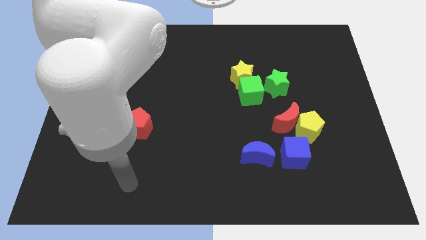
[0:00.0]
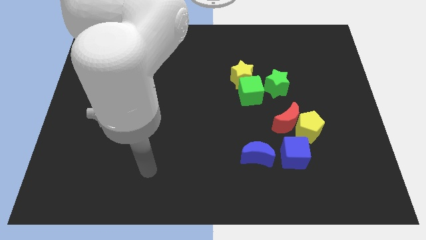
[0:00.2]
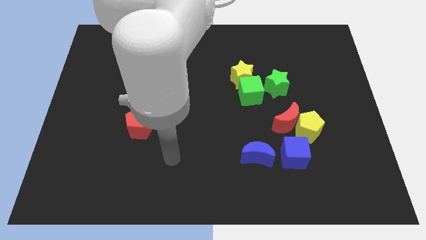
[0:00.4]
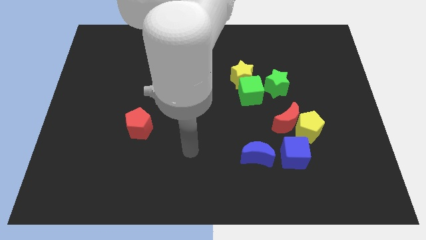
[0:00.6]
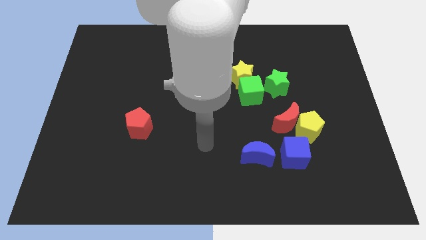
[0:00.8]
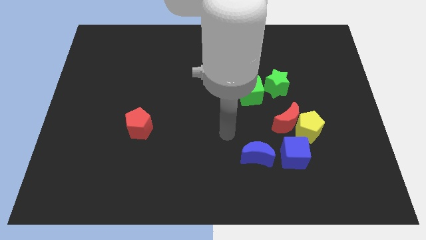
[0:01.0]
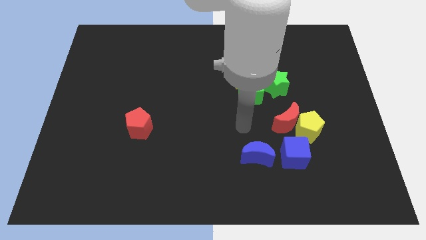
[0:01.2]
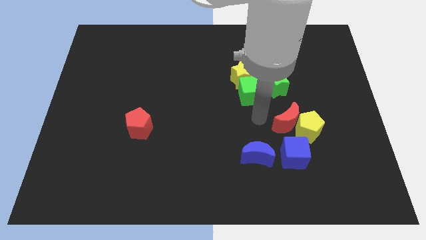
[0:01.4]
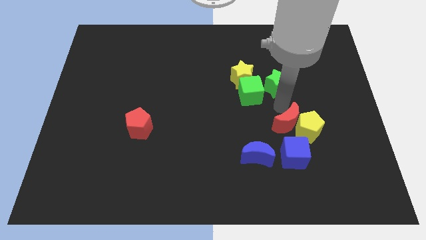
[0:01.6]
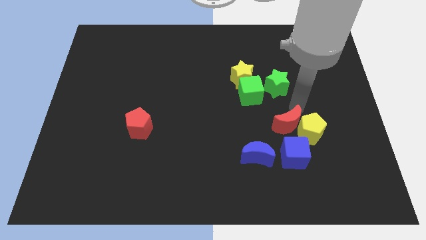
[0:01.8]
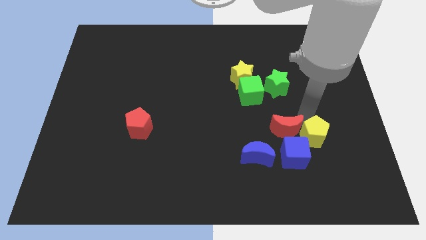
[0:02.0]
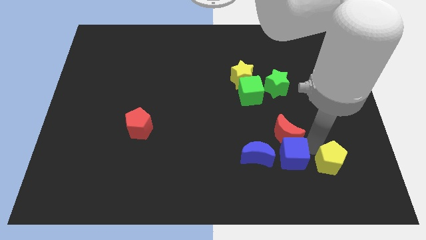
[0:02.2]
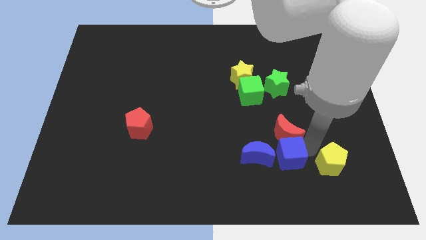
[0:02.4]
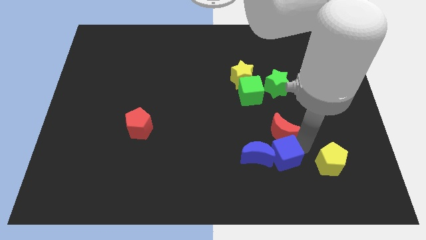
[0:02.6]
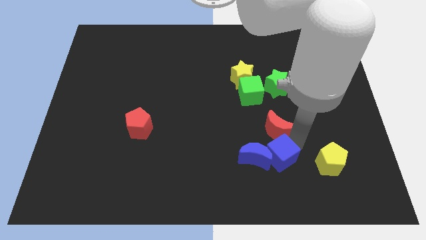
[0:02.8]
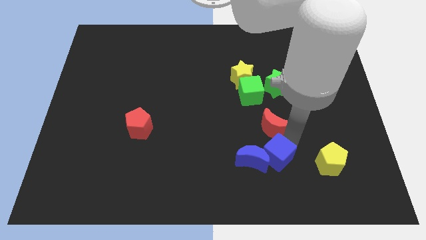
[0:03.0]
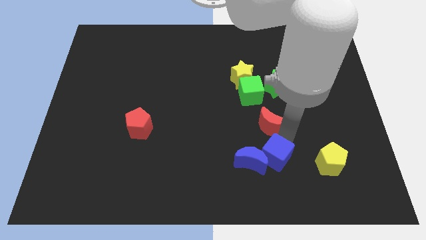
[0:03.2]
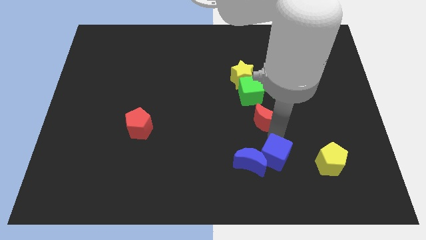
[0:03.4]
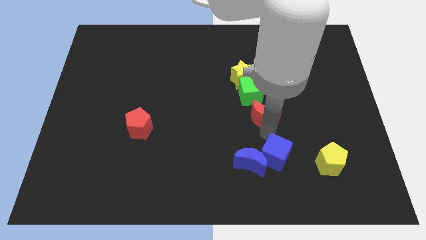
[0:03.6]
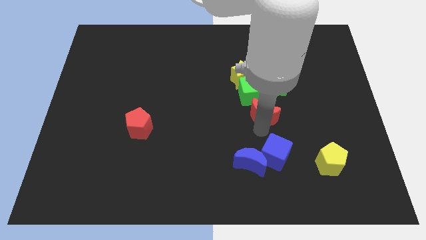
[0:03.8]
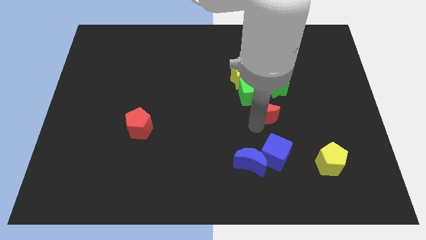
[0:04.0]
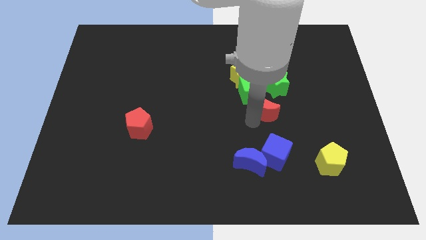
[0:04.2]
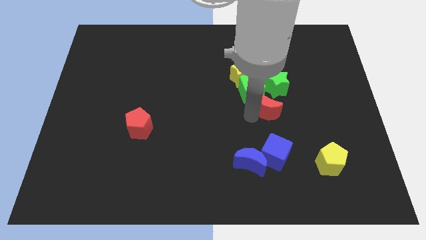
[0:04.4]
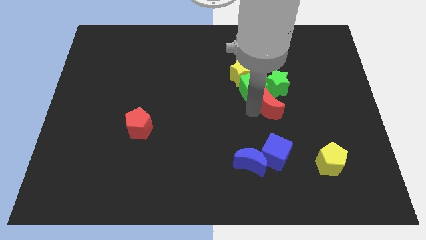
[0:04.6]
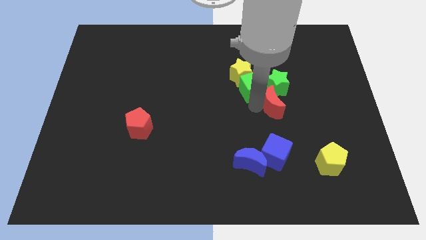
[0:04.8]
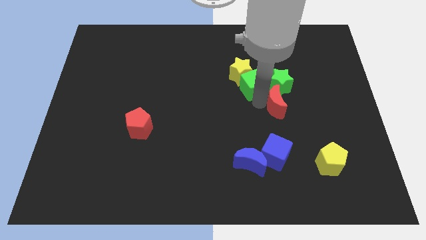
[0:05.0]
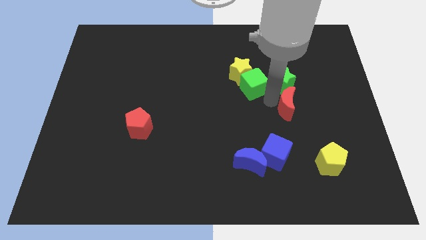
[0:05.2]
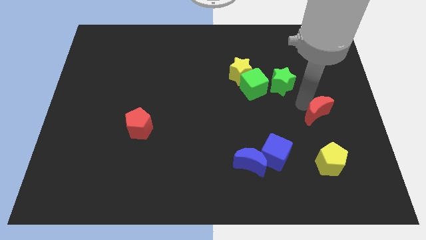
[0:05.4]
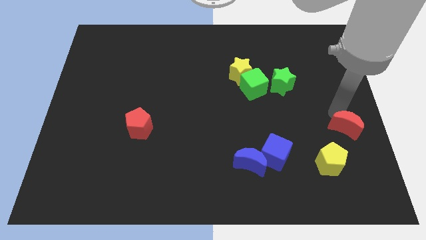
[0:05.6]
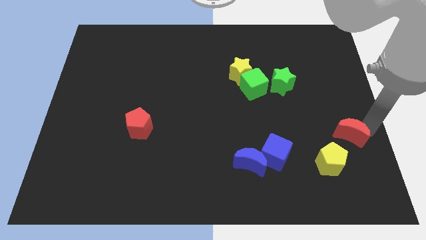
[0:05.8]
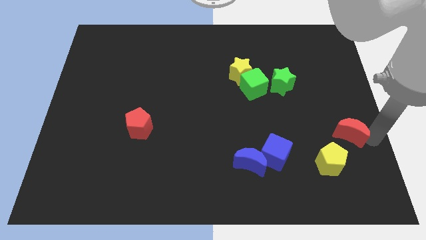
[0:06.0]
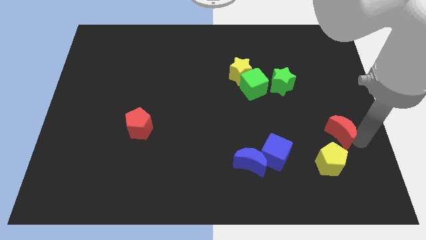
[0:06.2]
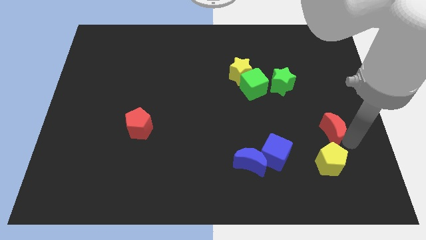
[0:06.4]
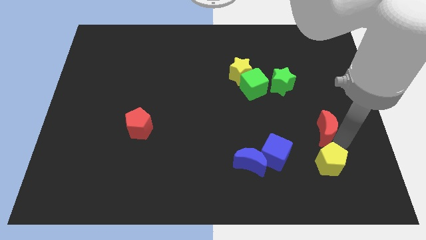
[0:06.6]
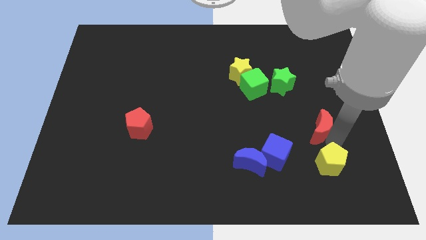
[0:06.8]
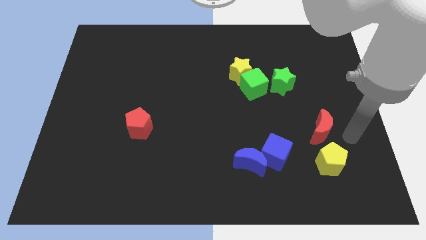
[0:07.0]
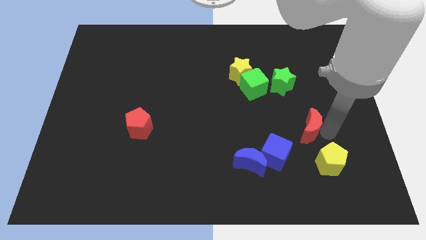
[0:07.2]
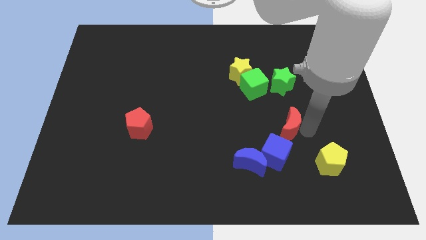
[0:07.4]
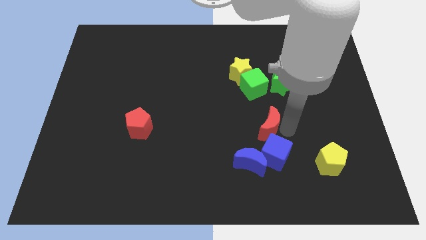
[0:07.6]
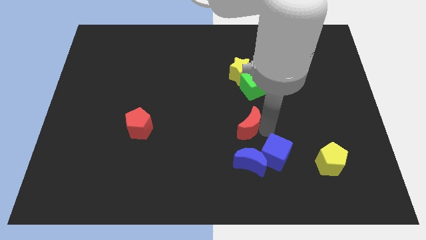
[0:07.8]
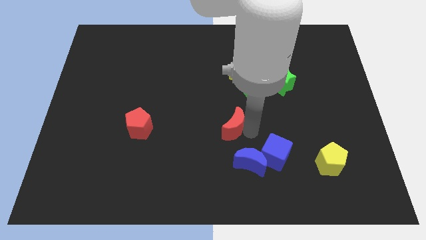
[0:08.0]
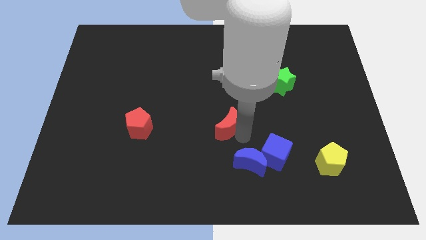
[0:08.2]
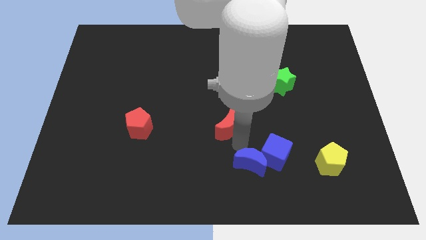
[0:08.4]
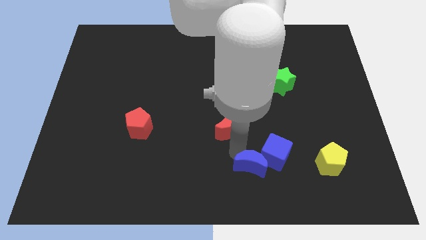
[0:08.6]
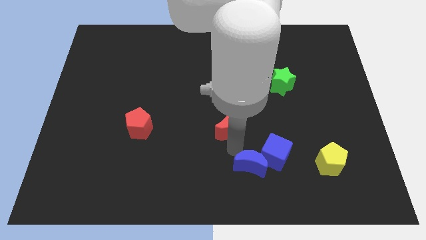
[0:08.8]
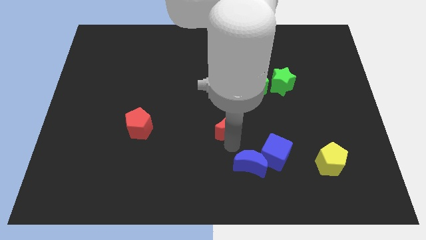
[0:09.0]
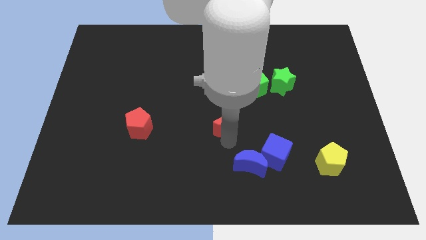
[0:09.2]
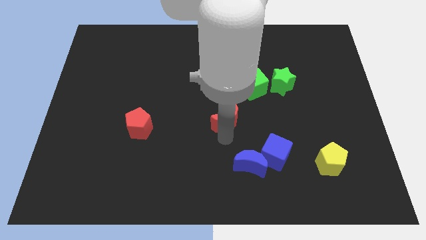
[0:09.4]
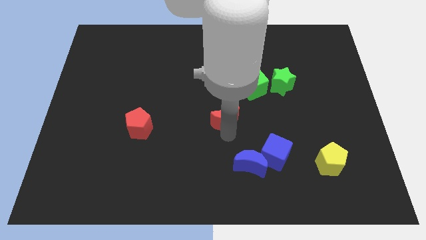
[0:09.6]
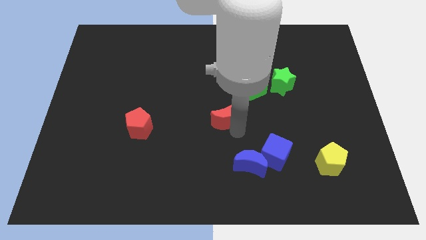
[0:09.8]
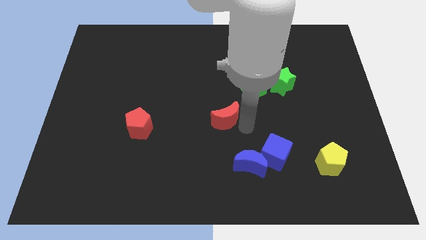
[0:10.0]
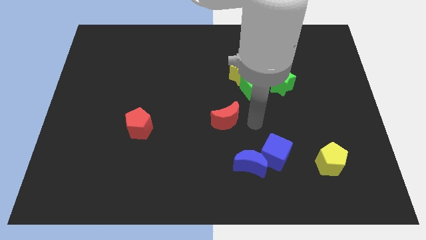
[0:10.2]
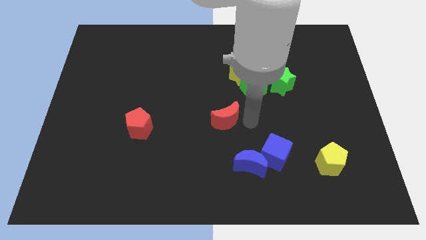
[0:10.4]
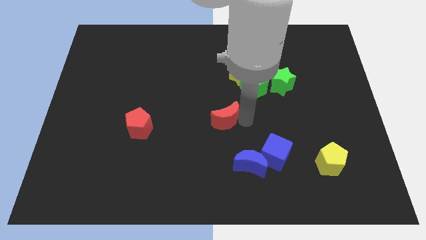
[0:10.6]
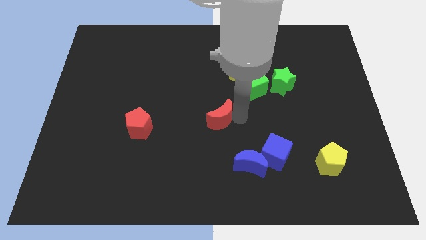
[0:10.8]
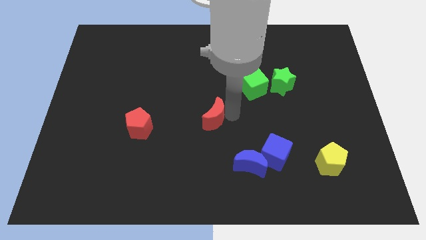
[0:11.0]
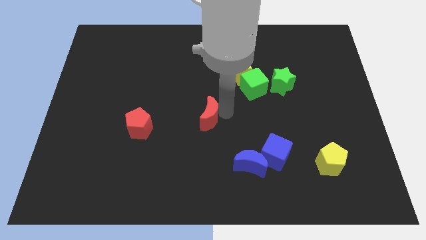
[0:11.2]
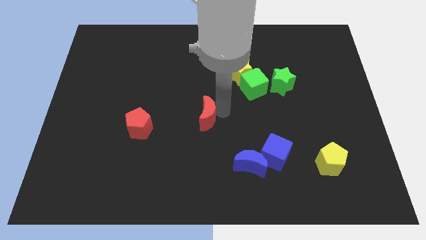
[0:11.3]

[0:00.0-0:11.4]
put the red moon to the right side of the red pentagon
